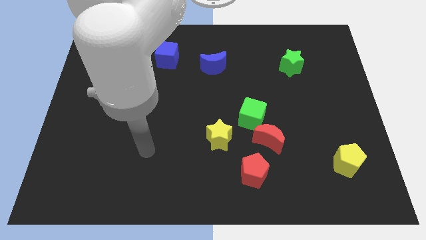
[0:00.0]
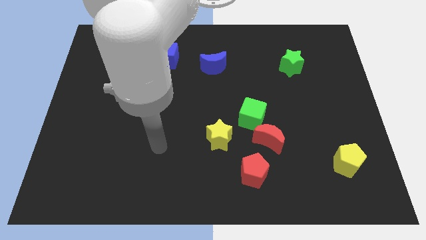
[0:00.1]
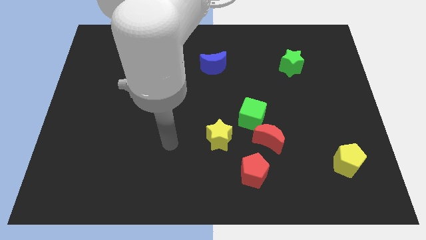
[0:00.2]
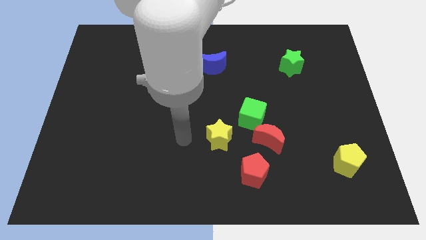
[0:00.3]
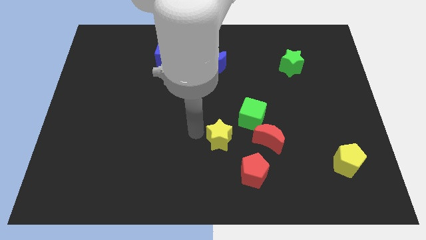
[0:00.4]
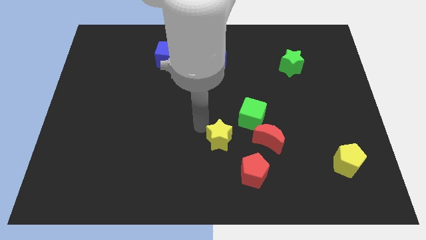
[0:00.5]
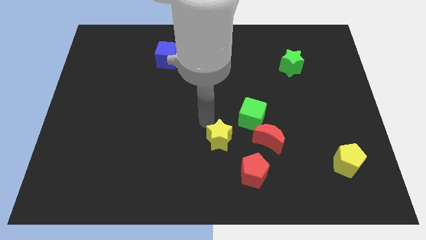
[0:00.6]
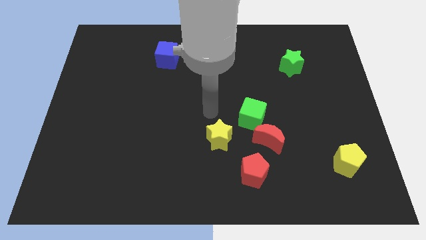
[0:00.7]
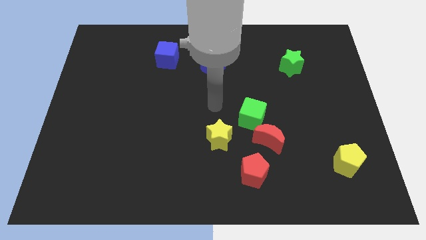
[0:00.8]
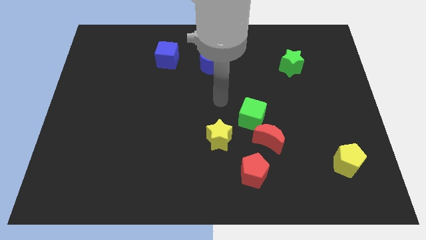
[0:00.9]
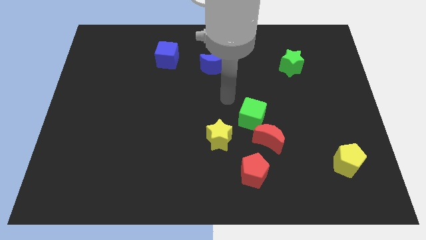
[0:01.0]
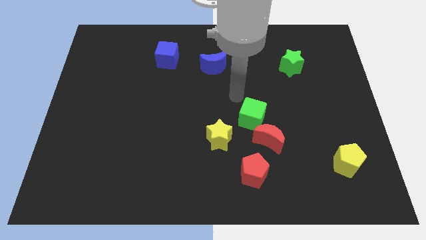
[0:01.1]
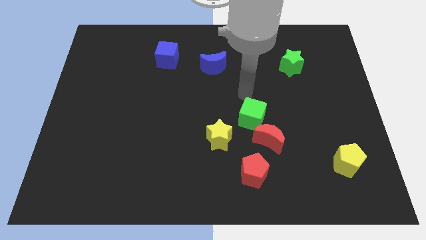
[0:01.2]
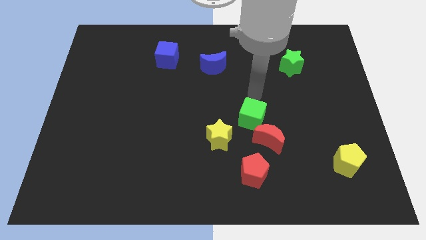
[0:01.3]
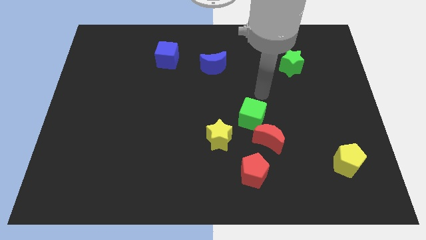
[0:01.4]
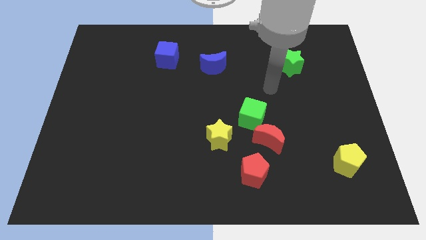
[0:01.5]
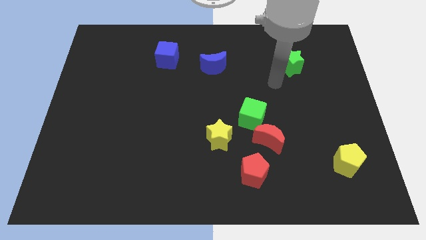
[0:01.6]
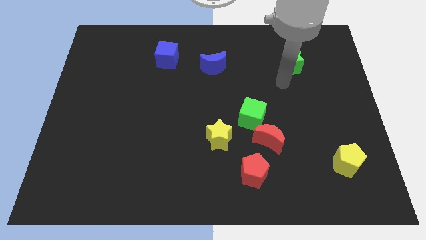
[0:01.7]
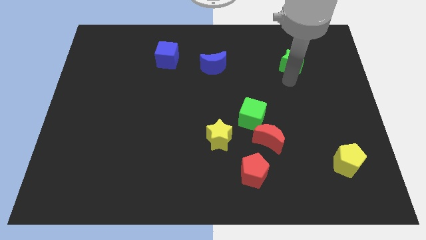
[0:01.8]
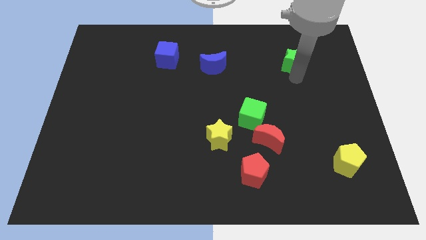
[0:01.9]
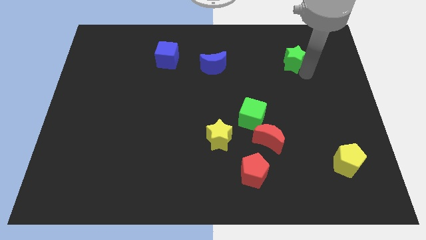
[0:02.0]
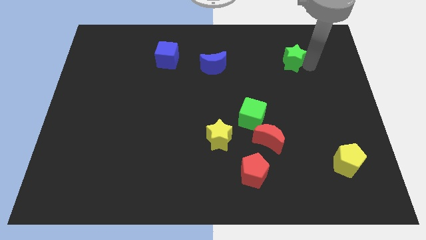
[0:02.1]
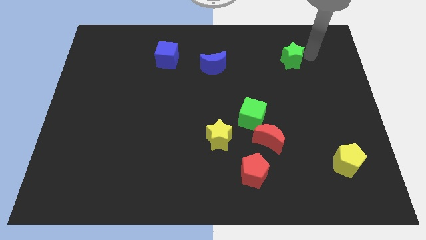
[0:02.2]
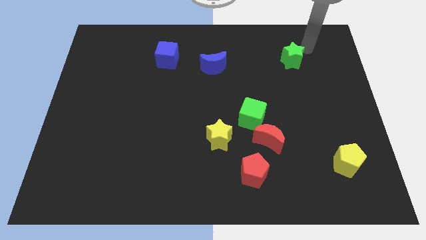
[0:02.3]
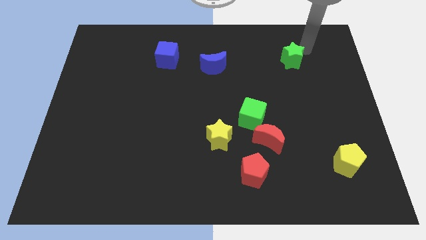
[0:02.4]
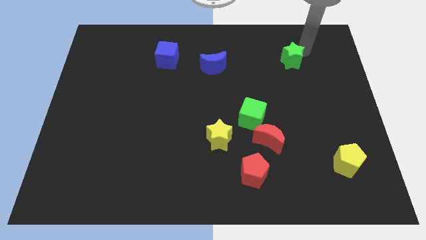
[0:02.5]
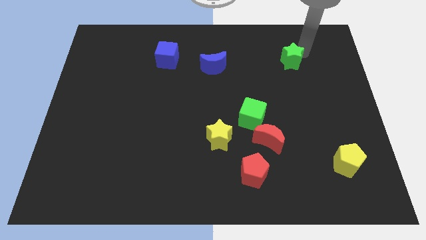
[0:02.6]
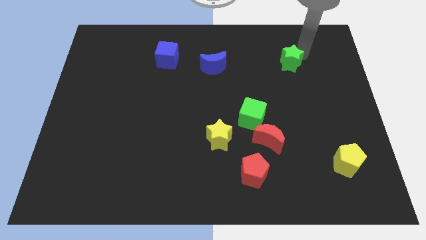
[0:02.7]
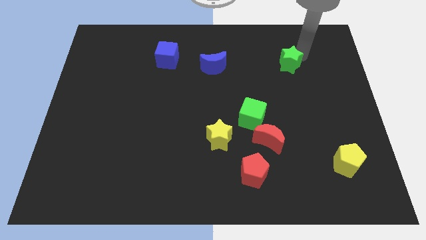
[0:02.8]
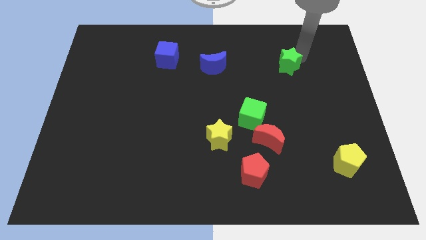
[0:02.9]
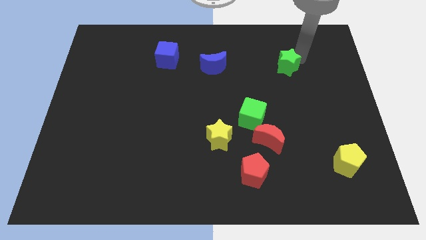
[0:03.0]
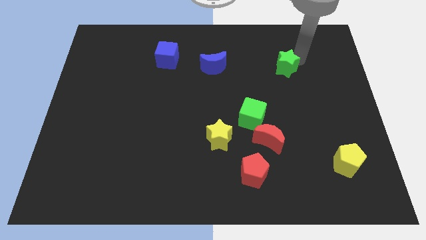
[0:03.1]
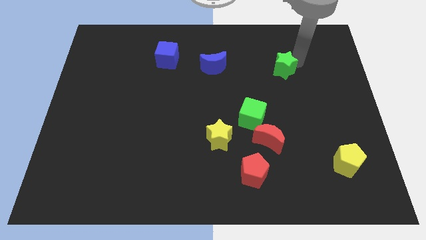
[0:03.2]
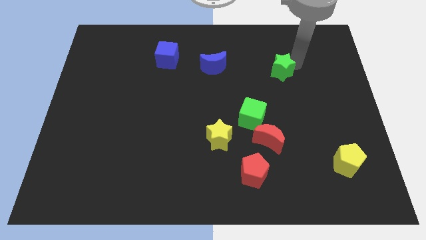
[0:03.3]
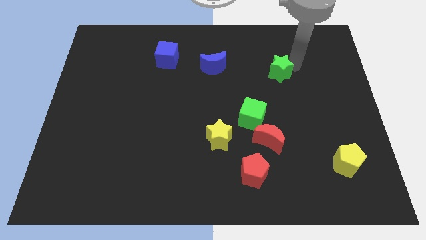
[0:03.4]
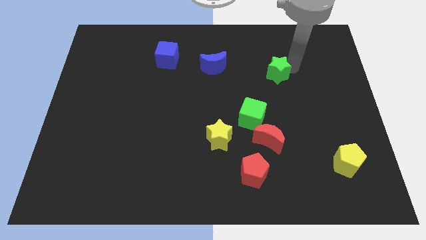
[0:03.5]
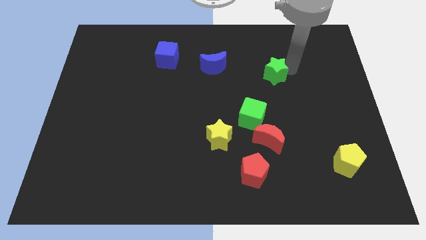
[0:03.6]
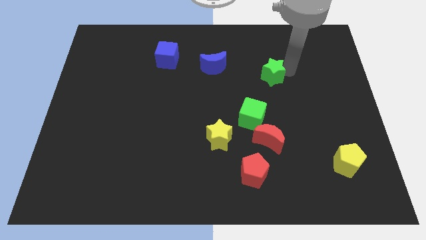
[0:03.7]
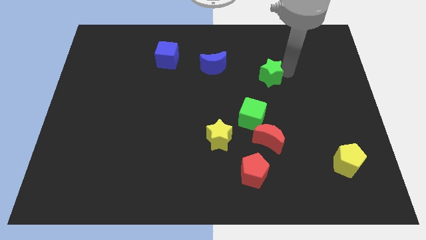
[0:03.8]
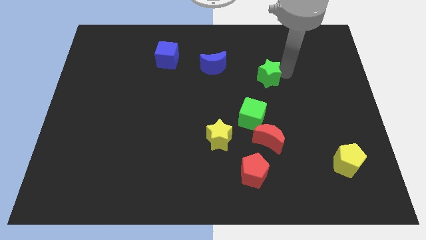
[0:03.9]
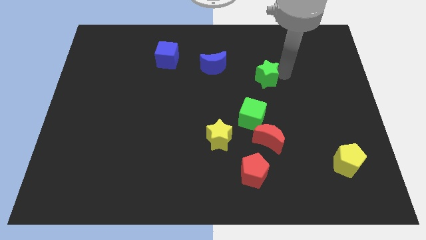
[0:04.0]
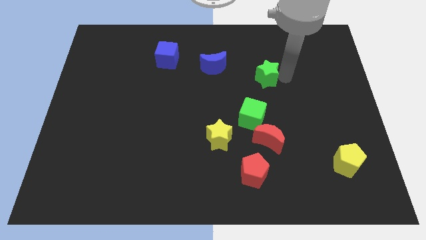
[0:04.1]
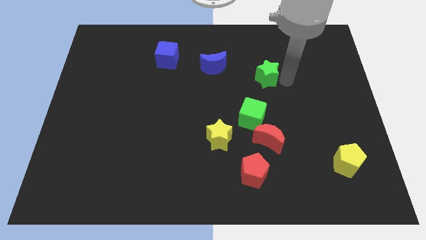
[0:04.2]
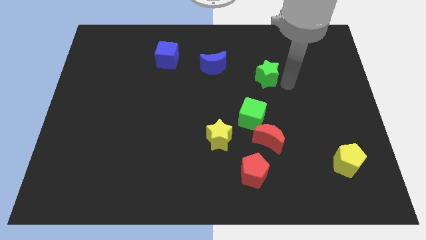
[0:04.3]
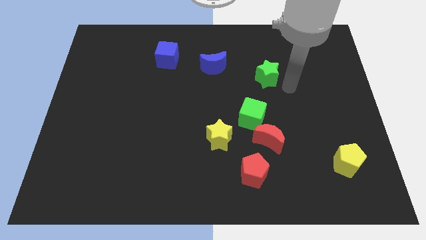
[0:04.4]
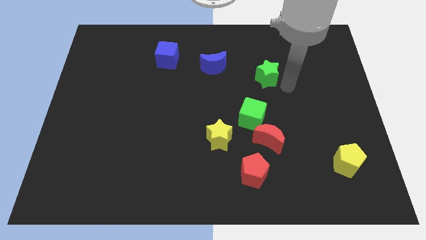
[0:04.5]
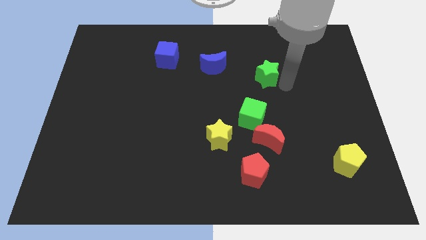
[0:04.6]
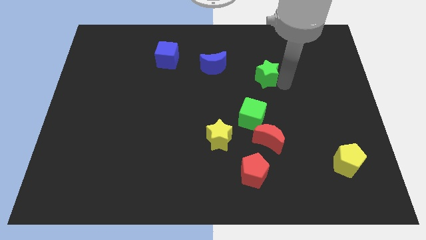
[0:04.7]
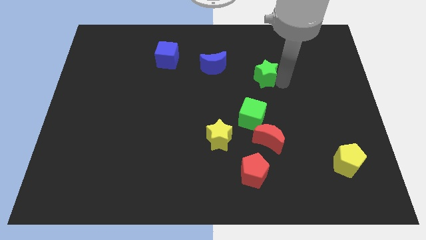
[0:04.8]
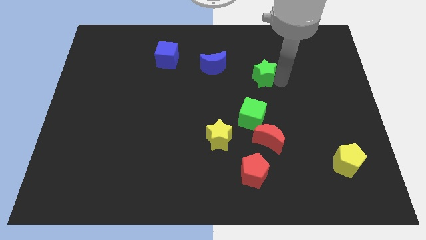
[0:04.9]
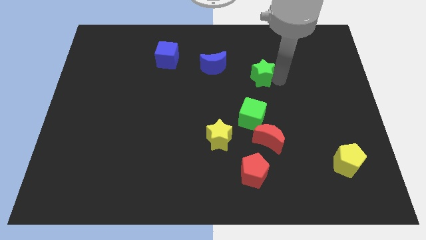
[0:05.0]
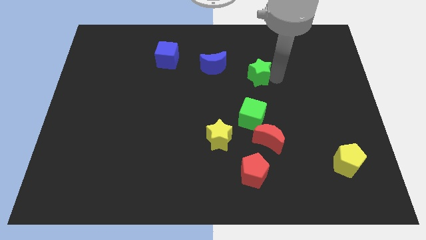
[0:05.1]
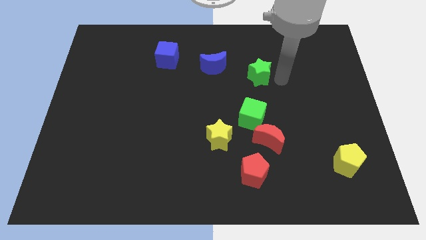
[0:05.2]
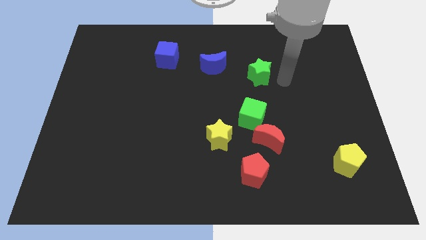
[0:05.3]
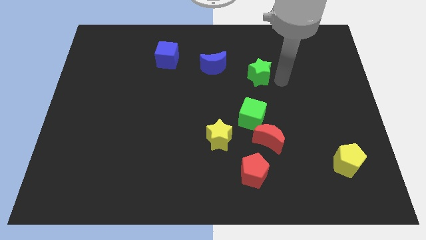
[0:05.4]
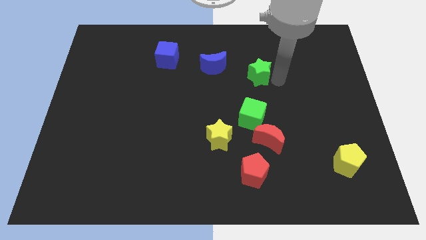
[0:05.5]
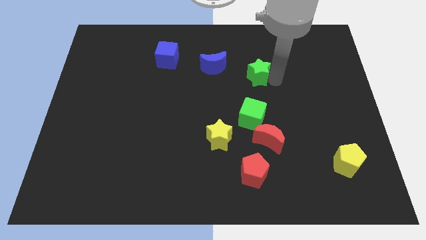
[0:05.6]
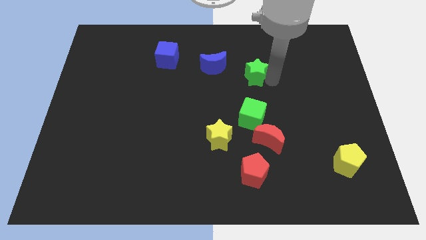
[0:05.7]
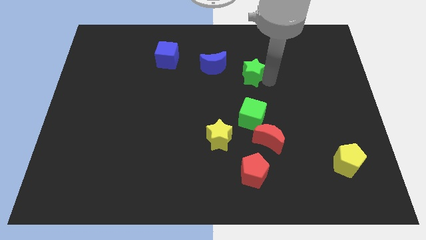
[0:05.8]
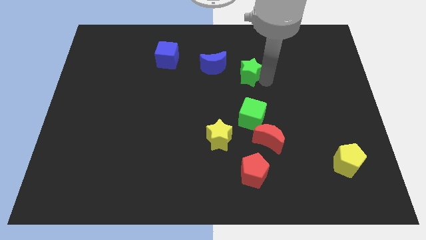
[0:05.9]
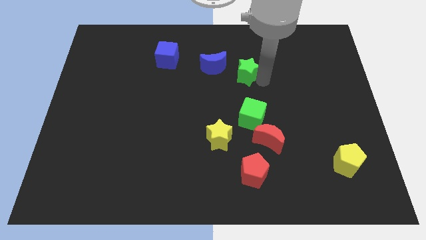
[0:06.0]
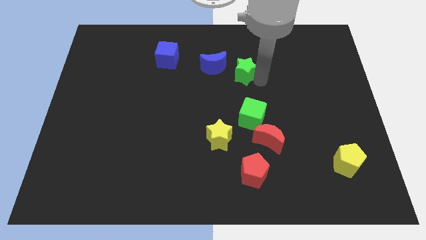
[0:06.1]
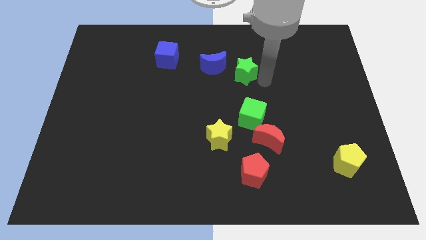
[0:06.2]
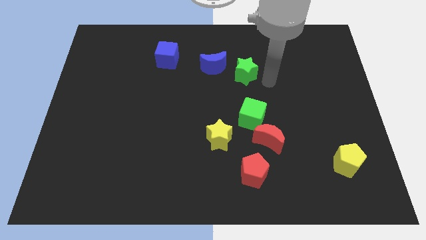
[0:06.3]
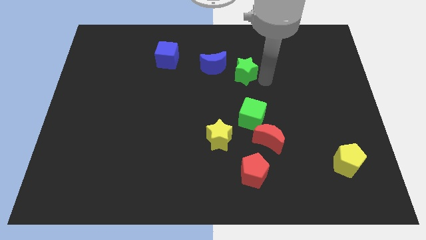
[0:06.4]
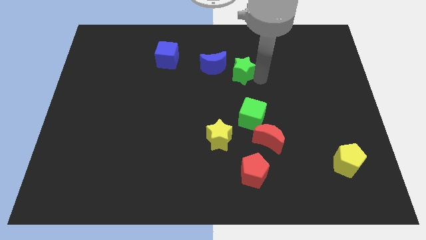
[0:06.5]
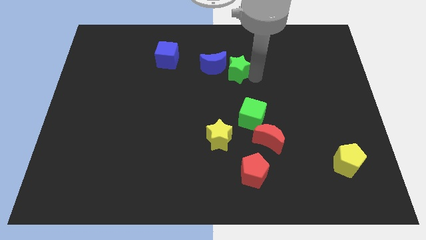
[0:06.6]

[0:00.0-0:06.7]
slide the green star close to the blue moon

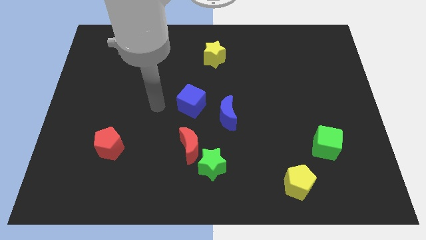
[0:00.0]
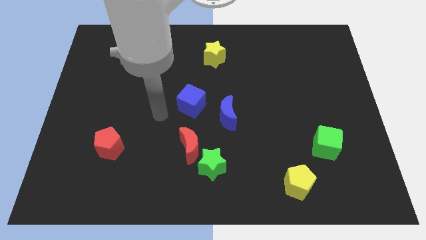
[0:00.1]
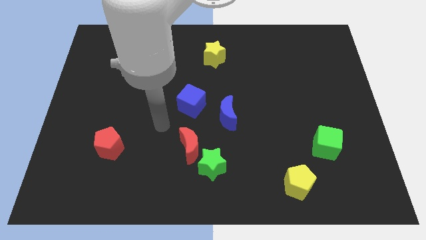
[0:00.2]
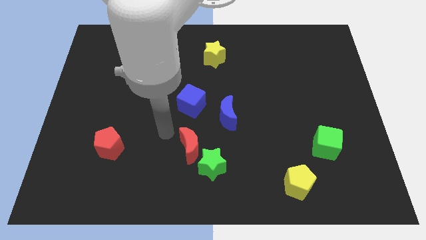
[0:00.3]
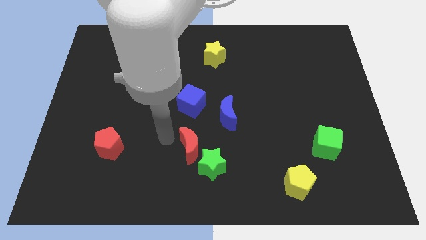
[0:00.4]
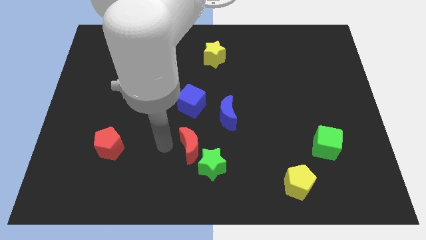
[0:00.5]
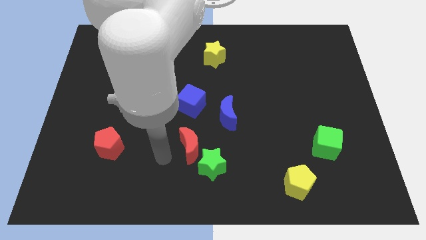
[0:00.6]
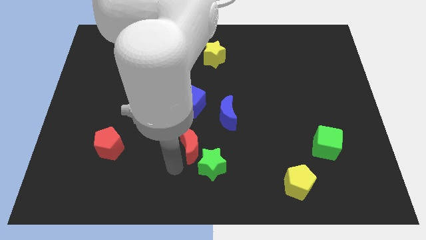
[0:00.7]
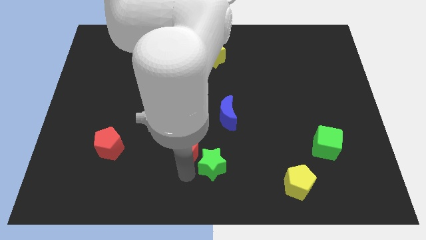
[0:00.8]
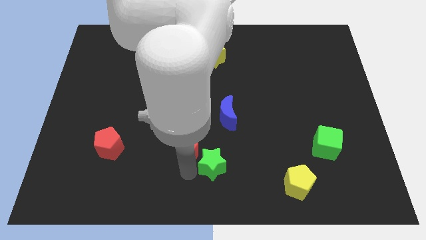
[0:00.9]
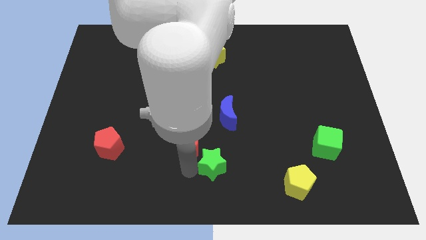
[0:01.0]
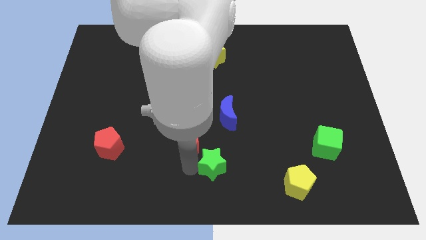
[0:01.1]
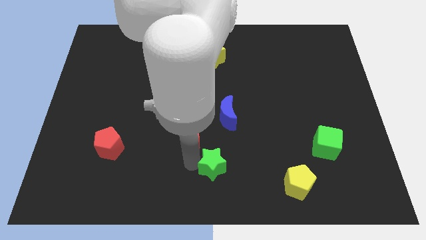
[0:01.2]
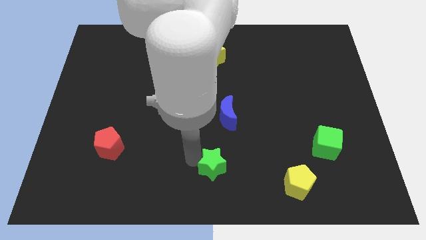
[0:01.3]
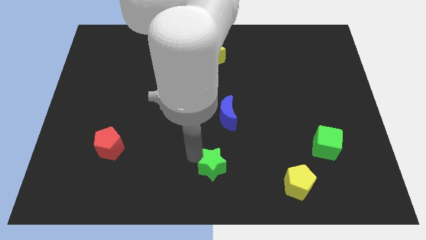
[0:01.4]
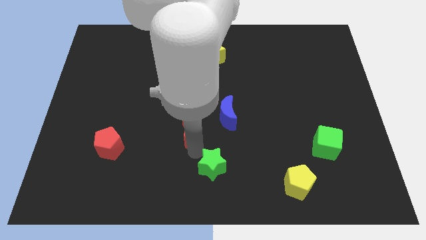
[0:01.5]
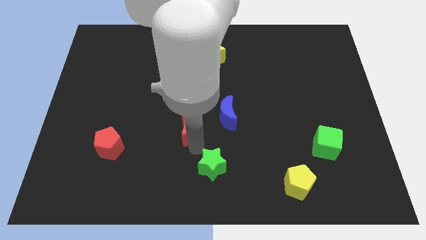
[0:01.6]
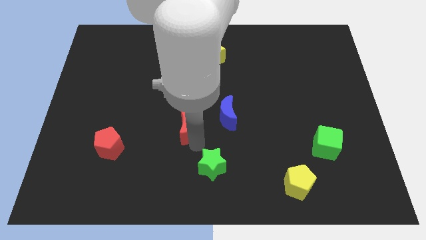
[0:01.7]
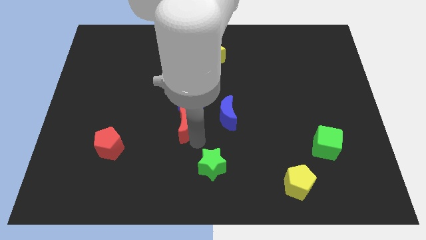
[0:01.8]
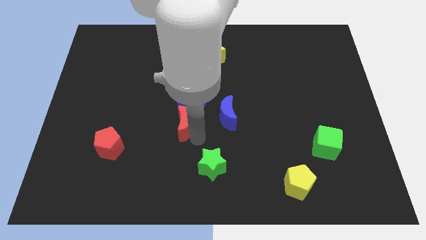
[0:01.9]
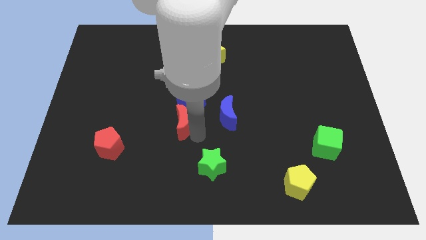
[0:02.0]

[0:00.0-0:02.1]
move the red moon next to the blue cube

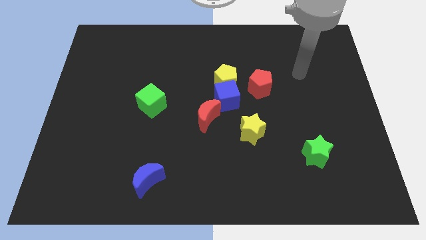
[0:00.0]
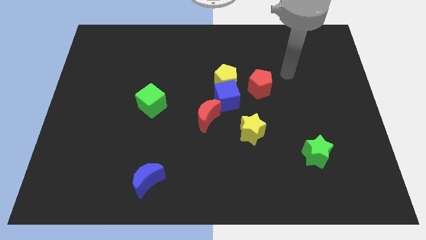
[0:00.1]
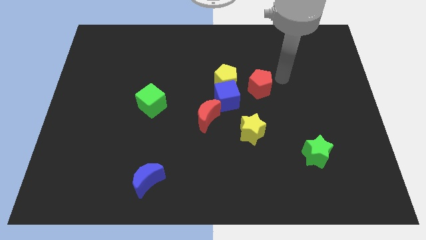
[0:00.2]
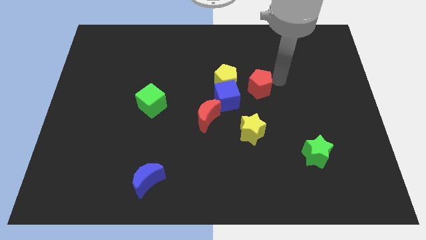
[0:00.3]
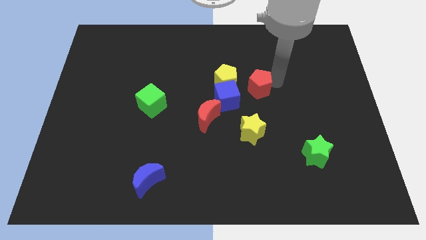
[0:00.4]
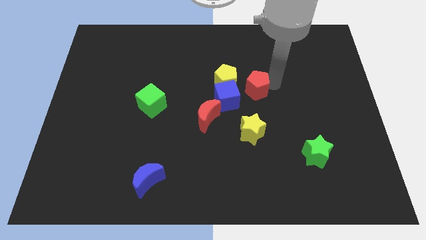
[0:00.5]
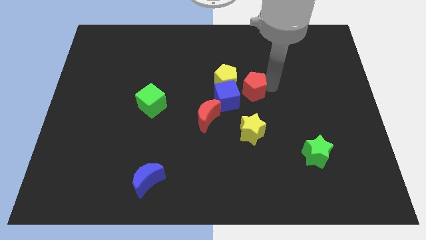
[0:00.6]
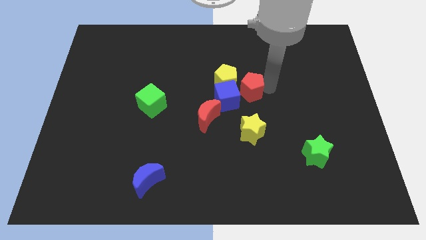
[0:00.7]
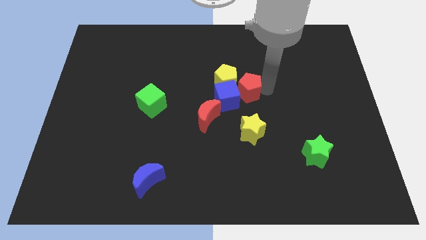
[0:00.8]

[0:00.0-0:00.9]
push the red pentagon towards the blue cube
